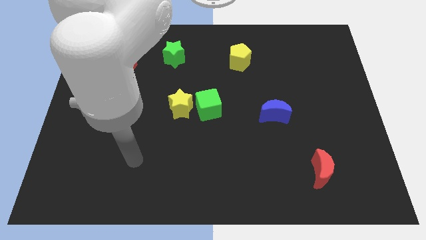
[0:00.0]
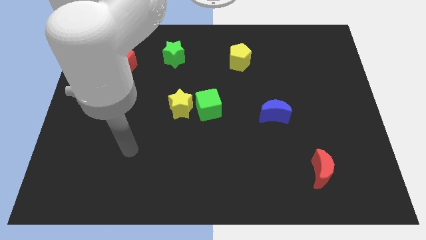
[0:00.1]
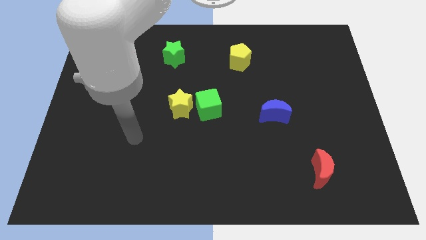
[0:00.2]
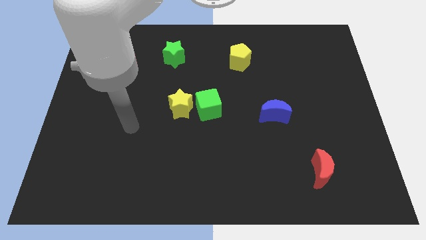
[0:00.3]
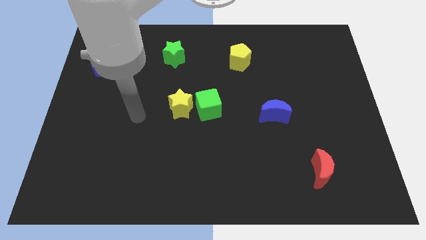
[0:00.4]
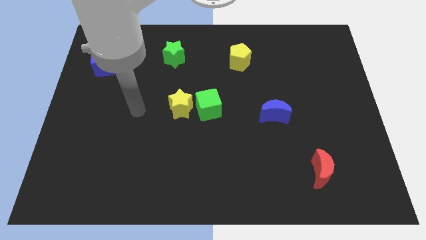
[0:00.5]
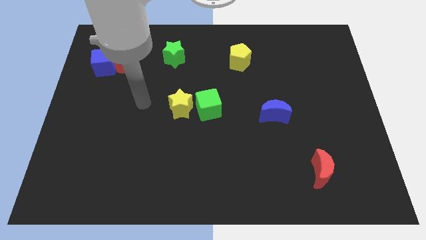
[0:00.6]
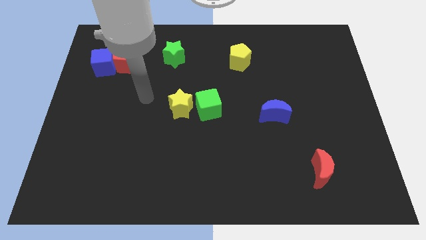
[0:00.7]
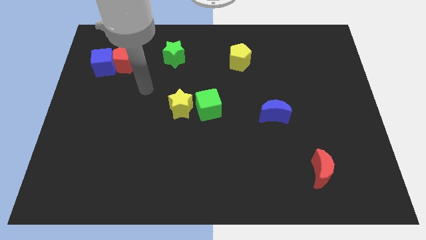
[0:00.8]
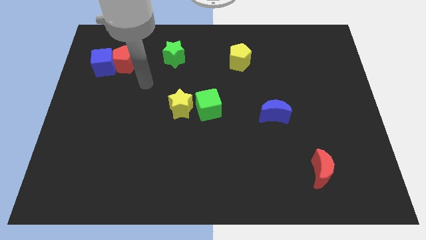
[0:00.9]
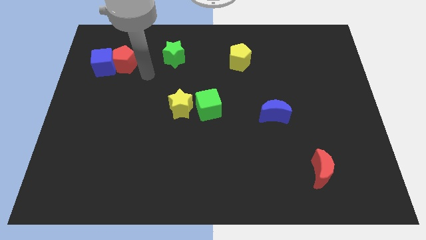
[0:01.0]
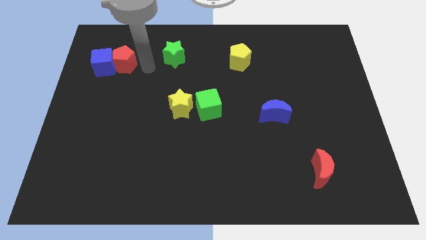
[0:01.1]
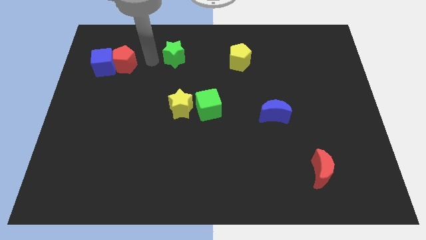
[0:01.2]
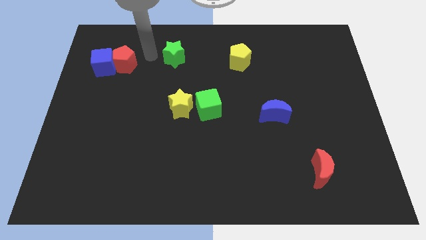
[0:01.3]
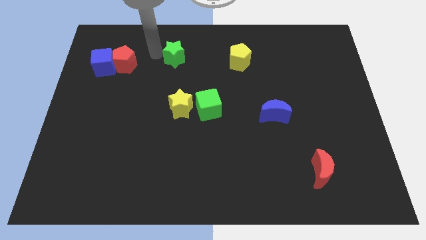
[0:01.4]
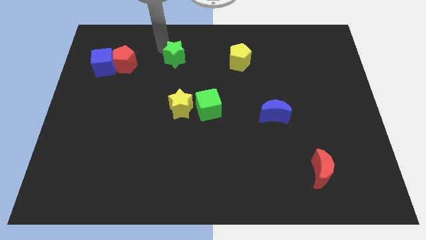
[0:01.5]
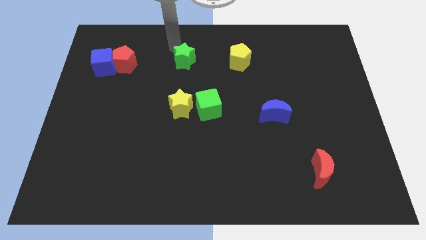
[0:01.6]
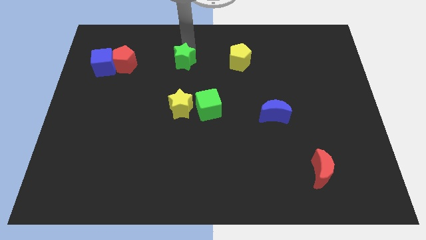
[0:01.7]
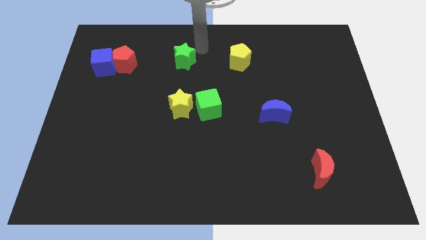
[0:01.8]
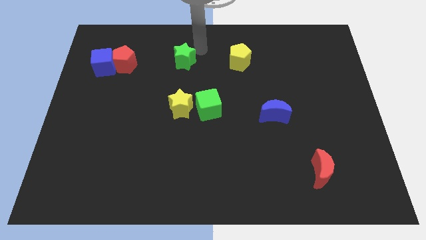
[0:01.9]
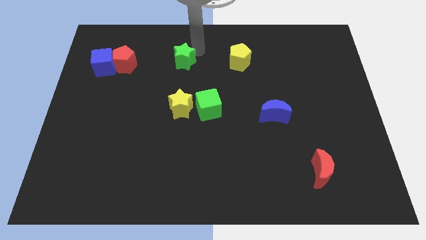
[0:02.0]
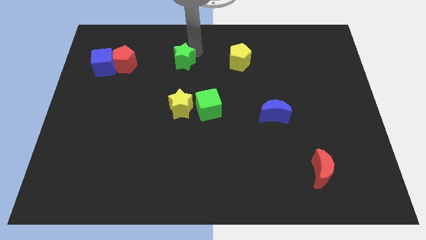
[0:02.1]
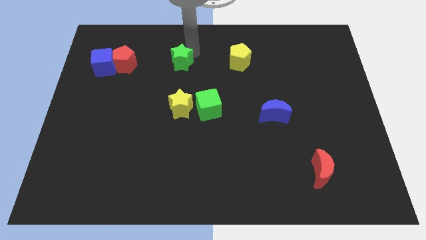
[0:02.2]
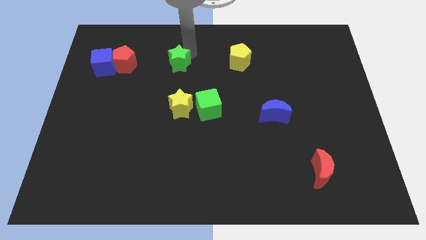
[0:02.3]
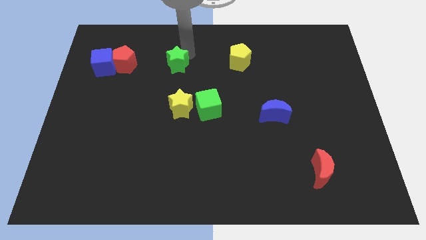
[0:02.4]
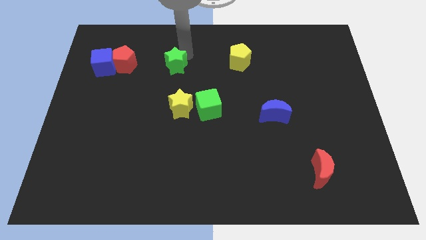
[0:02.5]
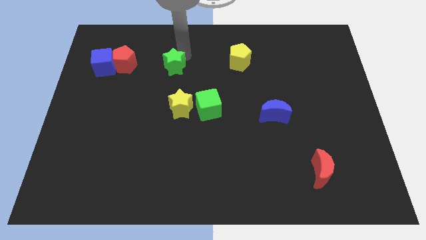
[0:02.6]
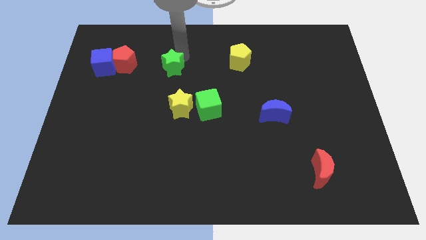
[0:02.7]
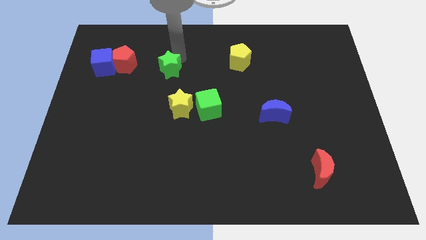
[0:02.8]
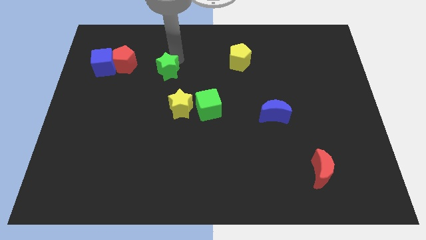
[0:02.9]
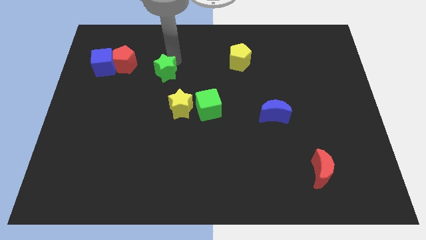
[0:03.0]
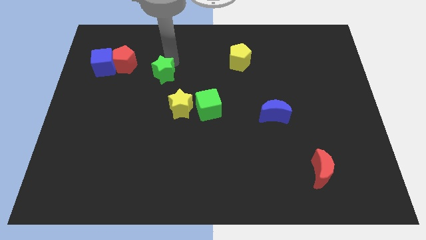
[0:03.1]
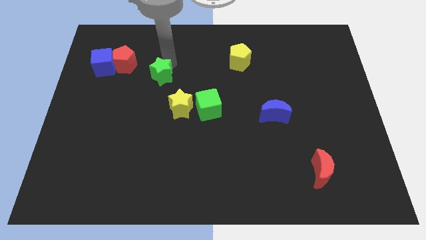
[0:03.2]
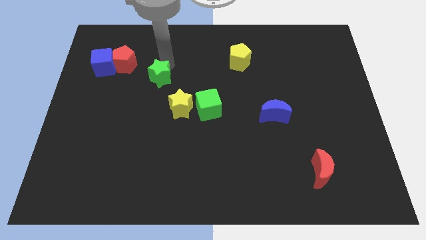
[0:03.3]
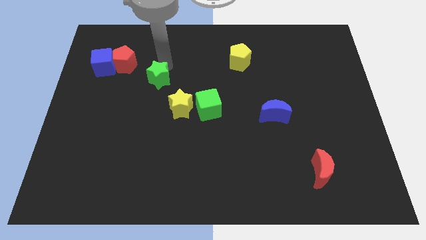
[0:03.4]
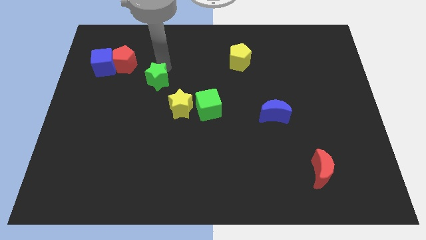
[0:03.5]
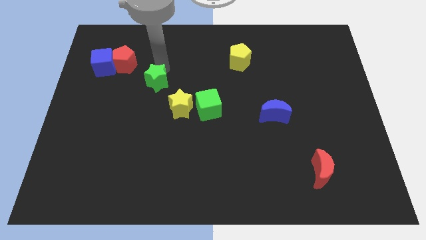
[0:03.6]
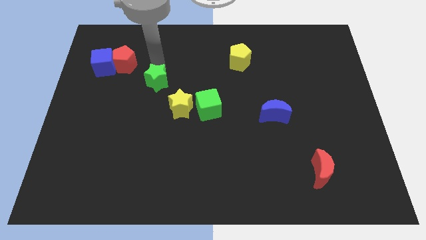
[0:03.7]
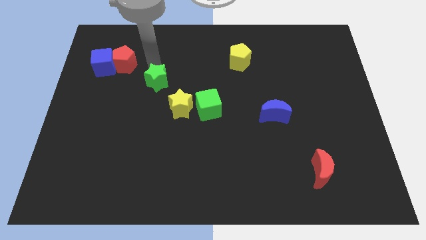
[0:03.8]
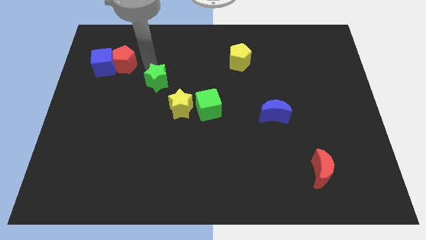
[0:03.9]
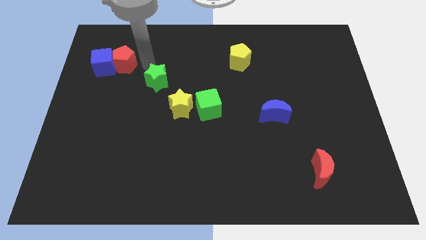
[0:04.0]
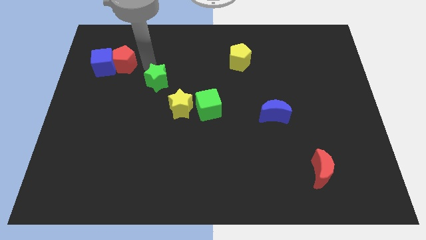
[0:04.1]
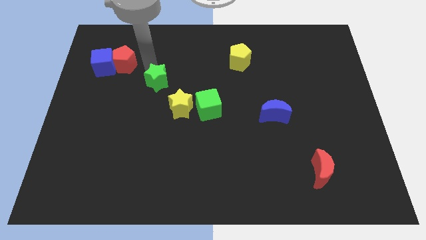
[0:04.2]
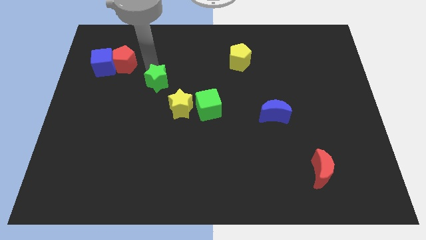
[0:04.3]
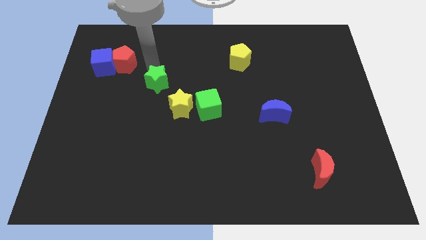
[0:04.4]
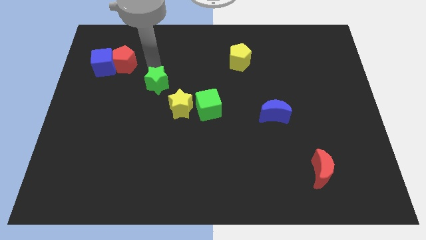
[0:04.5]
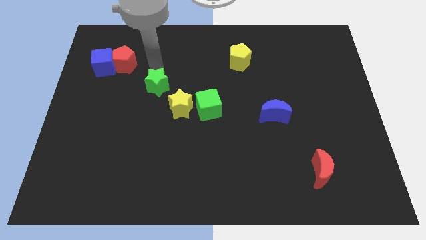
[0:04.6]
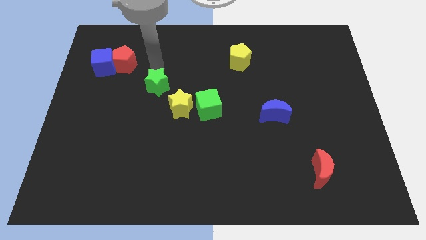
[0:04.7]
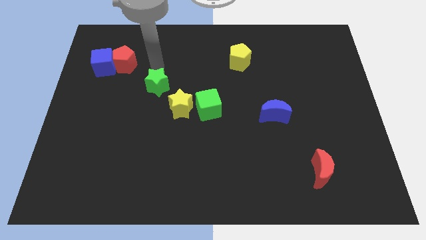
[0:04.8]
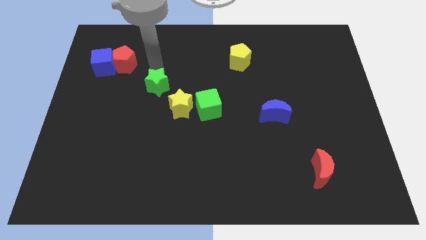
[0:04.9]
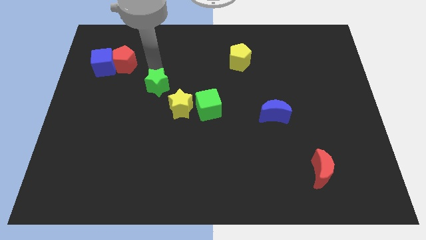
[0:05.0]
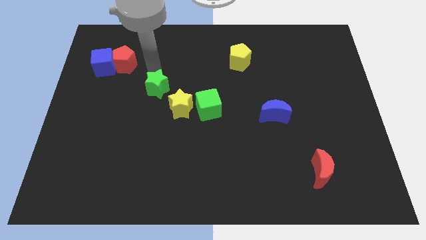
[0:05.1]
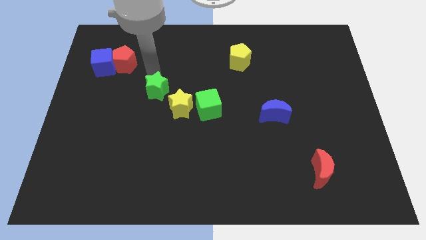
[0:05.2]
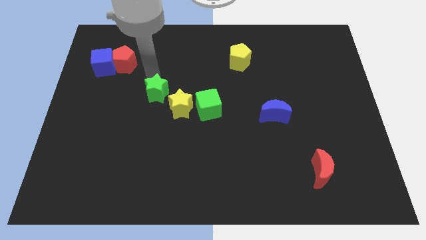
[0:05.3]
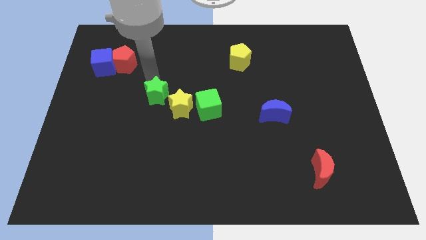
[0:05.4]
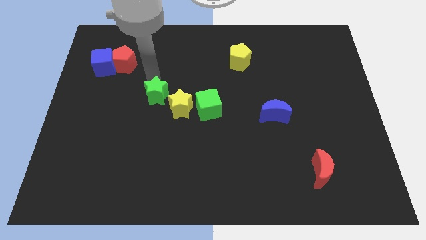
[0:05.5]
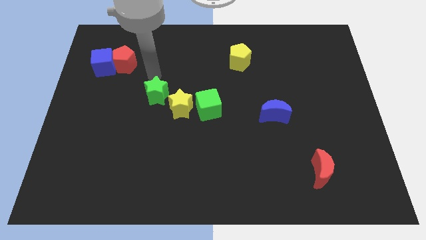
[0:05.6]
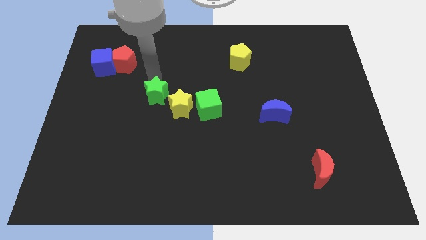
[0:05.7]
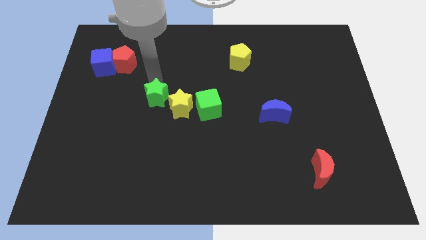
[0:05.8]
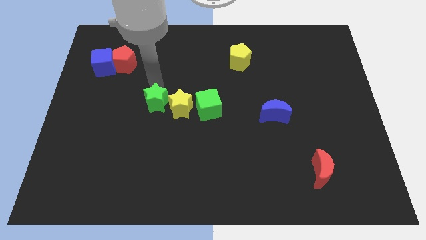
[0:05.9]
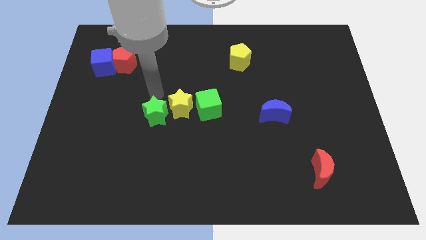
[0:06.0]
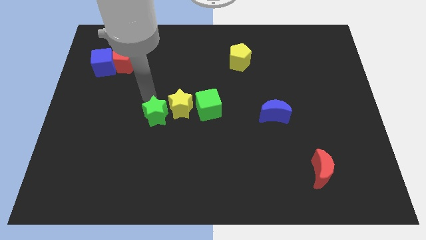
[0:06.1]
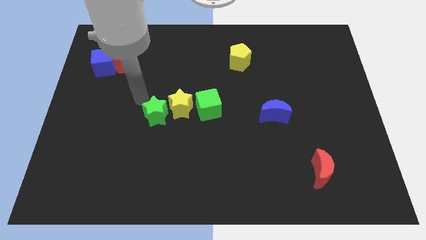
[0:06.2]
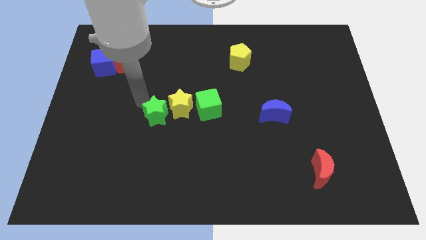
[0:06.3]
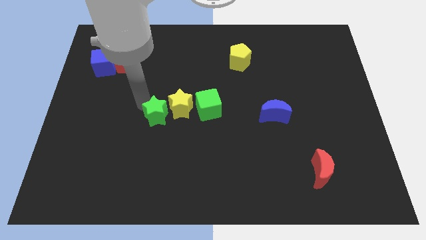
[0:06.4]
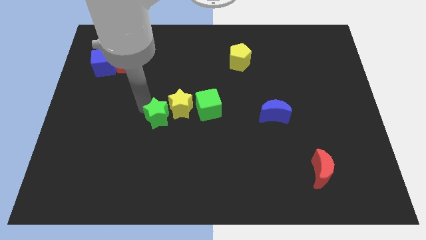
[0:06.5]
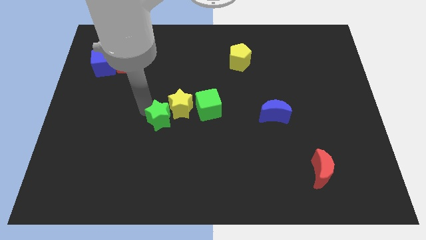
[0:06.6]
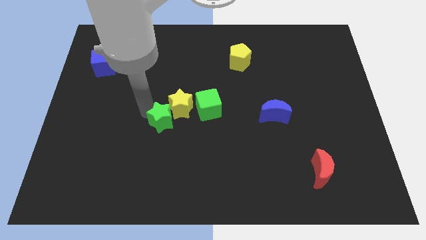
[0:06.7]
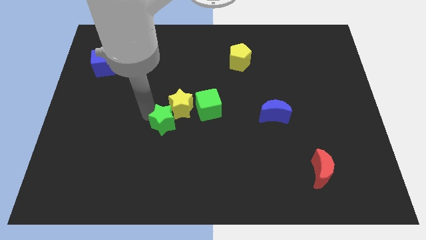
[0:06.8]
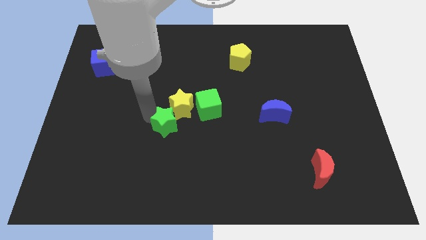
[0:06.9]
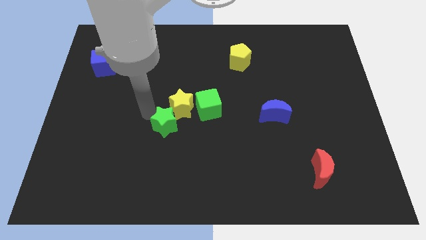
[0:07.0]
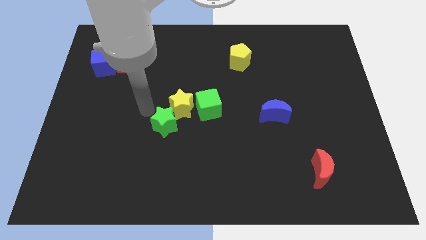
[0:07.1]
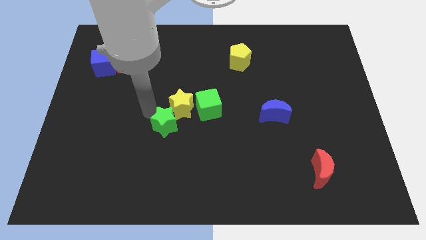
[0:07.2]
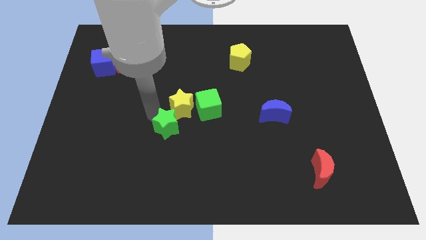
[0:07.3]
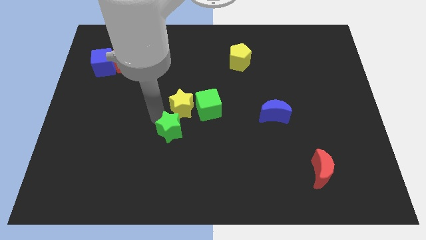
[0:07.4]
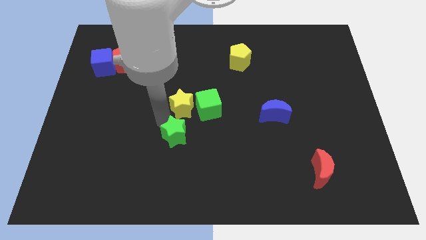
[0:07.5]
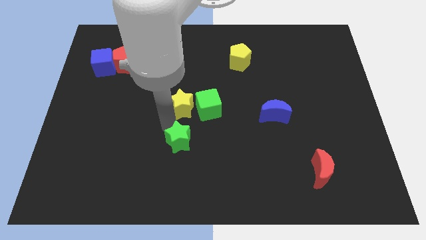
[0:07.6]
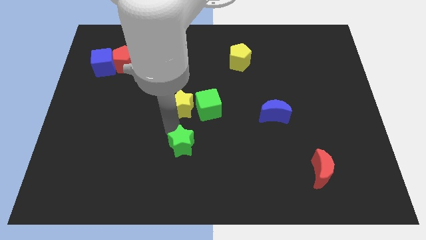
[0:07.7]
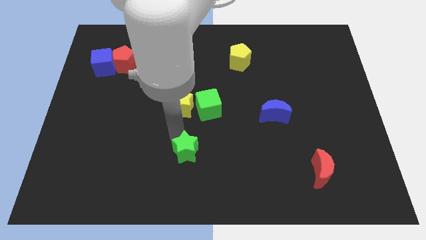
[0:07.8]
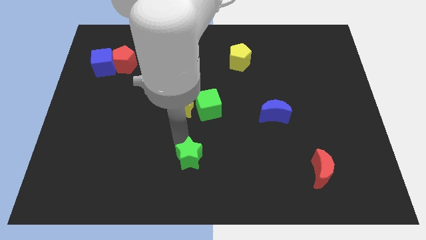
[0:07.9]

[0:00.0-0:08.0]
slide the green star to the bottom side
